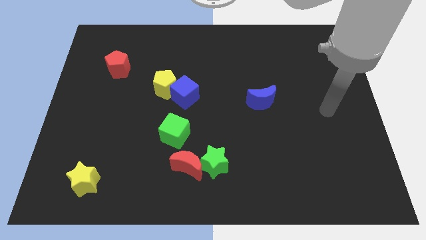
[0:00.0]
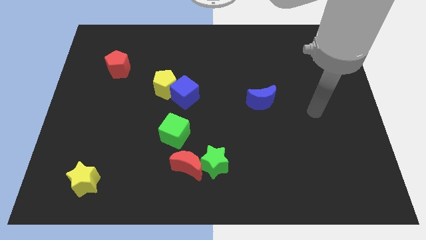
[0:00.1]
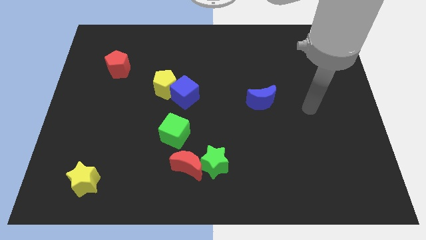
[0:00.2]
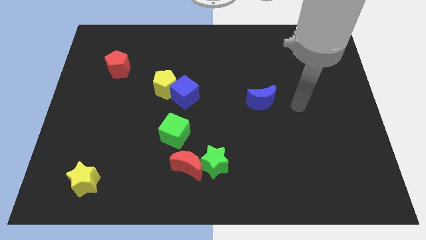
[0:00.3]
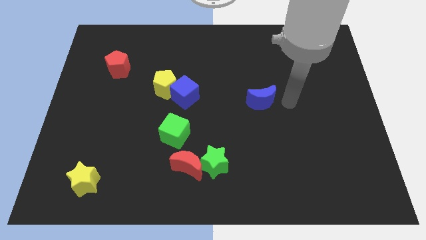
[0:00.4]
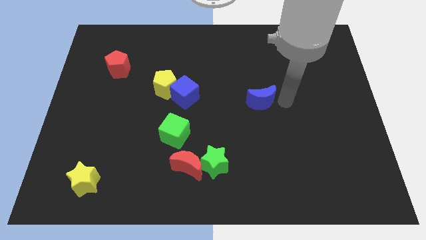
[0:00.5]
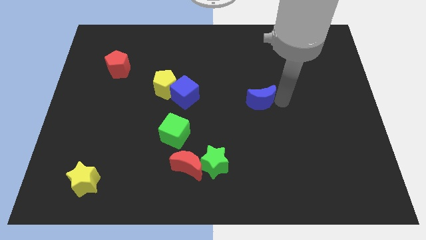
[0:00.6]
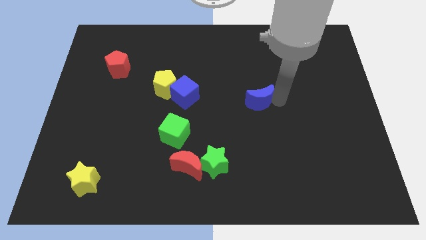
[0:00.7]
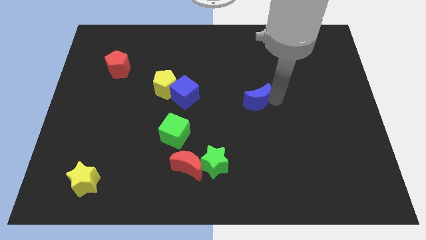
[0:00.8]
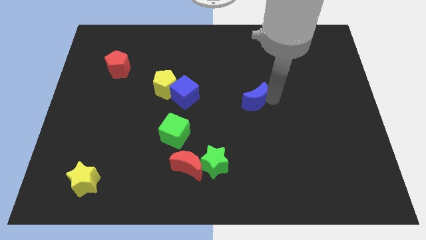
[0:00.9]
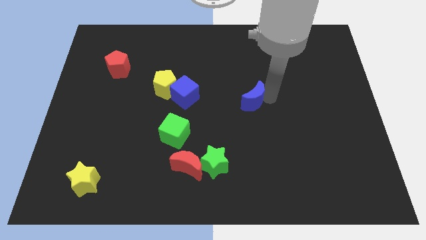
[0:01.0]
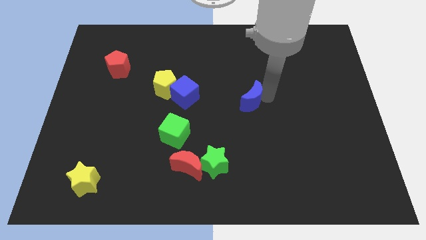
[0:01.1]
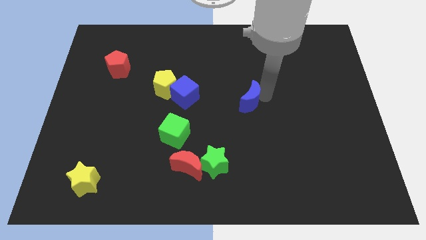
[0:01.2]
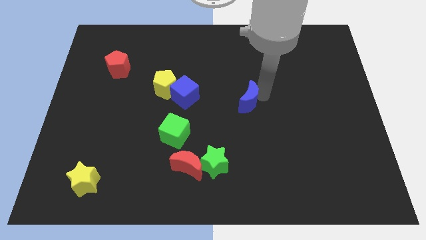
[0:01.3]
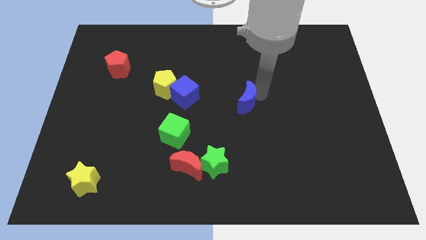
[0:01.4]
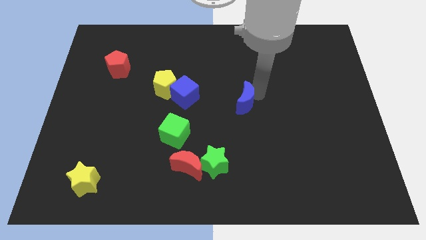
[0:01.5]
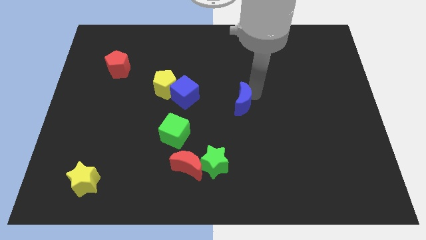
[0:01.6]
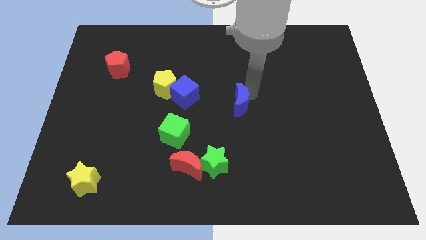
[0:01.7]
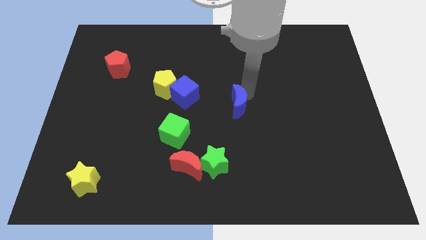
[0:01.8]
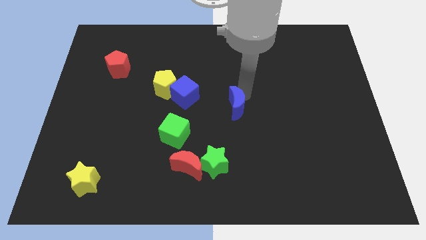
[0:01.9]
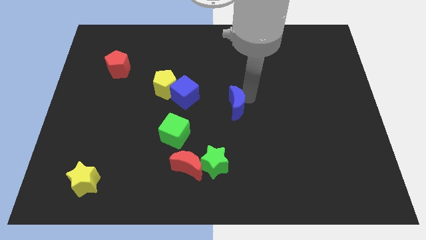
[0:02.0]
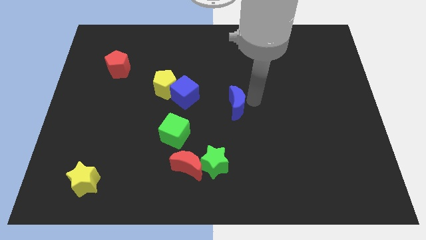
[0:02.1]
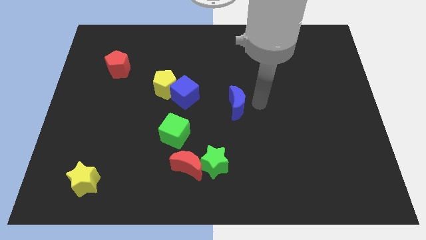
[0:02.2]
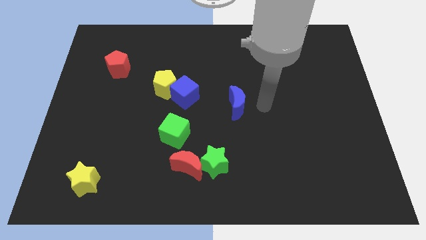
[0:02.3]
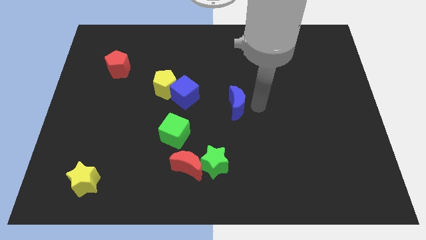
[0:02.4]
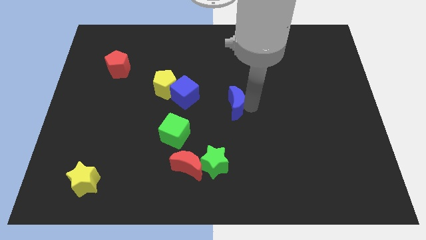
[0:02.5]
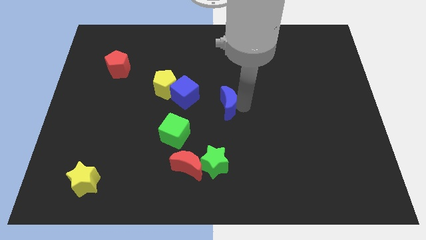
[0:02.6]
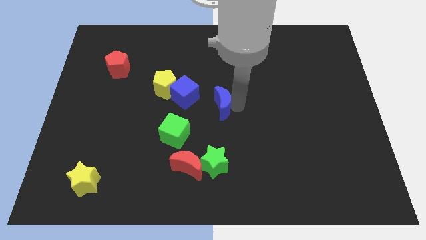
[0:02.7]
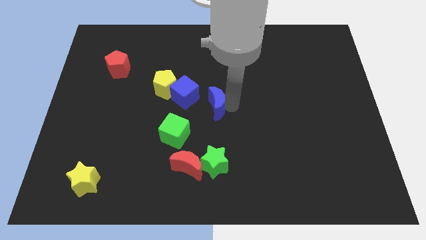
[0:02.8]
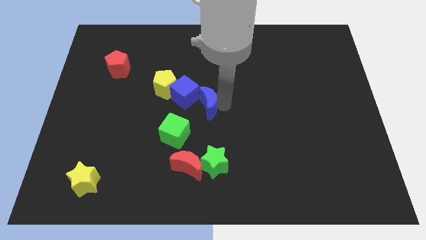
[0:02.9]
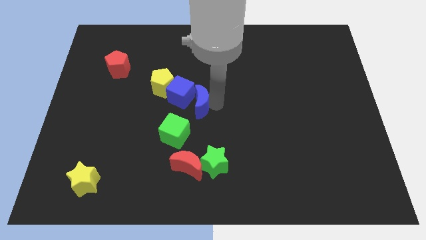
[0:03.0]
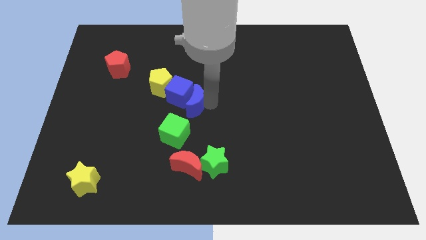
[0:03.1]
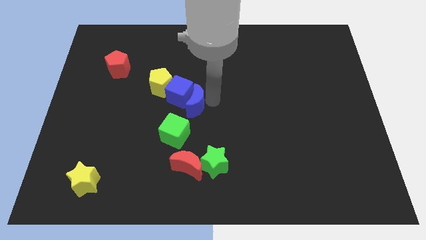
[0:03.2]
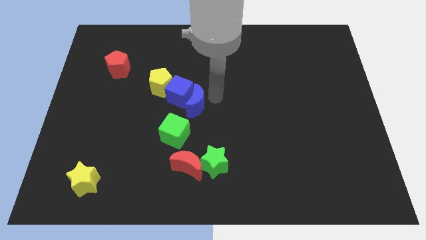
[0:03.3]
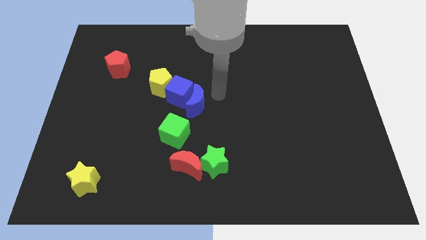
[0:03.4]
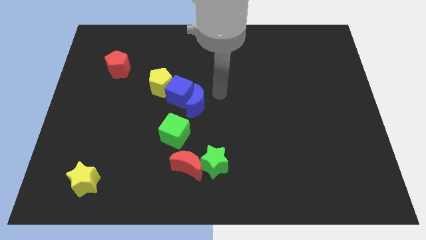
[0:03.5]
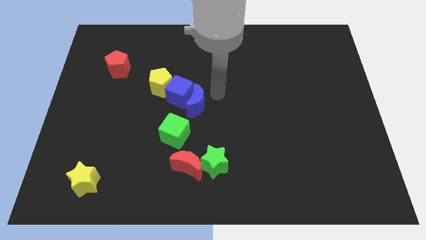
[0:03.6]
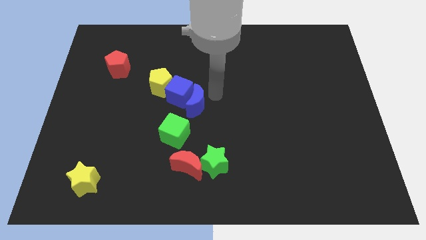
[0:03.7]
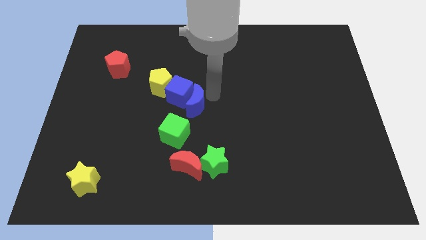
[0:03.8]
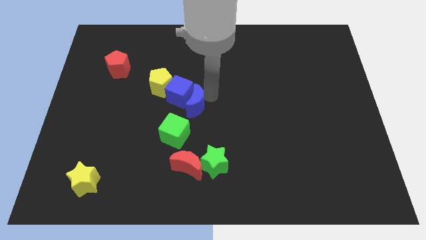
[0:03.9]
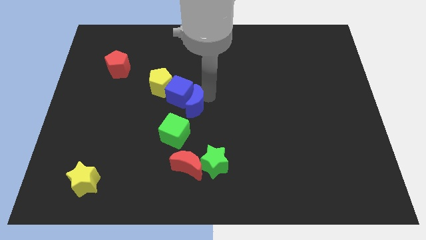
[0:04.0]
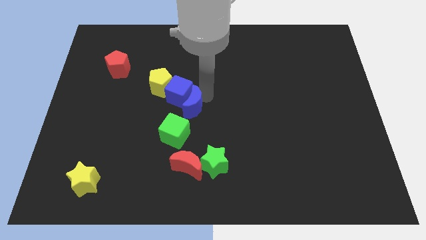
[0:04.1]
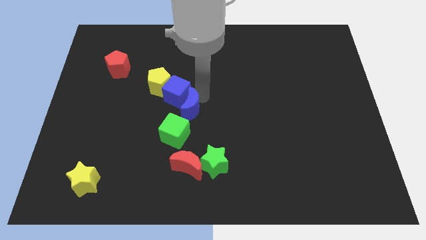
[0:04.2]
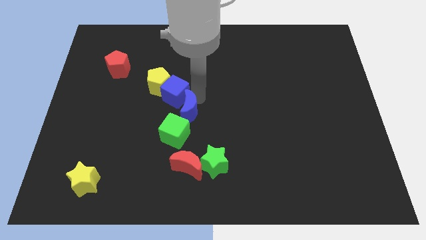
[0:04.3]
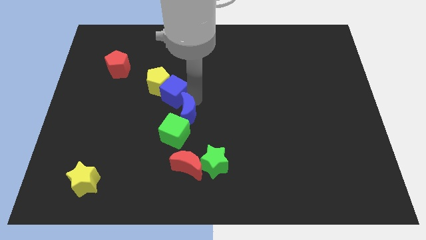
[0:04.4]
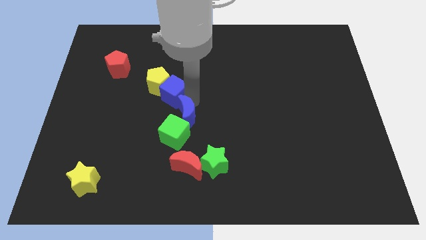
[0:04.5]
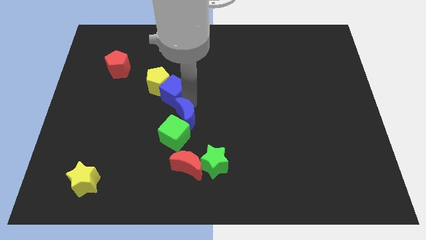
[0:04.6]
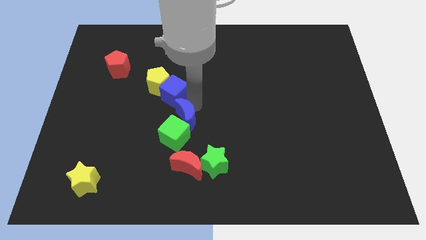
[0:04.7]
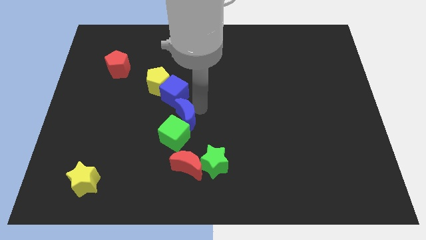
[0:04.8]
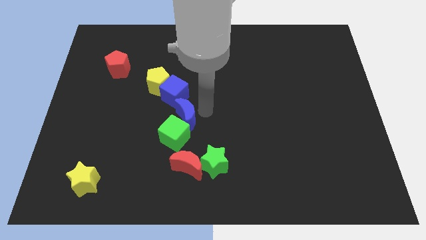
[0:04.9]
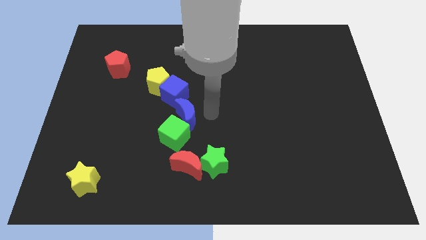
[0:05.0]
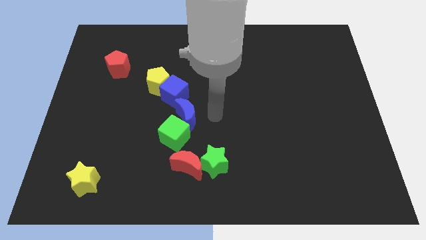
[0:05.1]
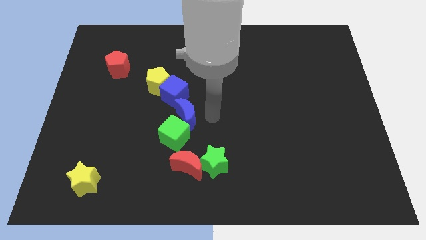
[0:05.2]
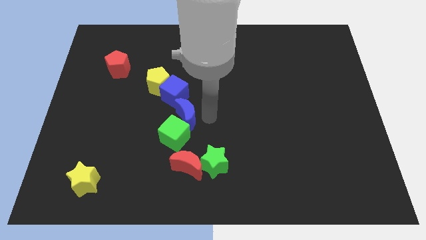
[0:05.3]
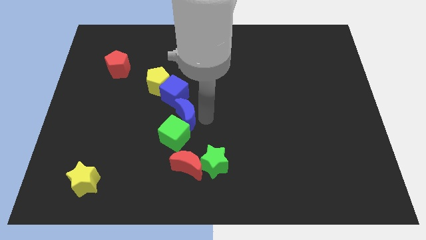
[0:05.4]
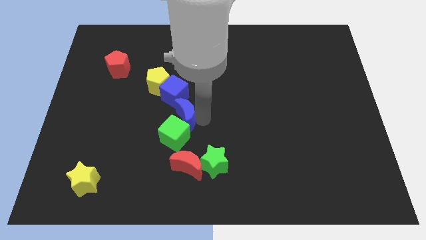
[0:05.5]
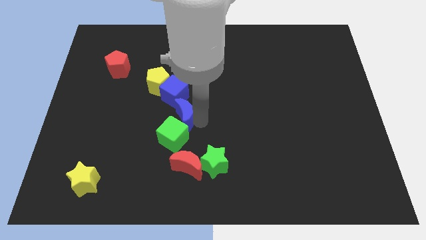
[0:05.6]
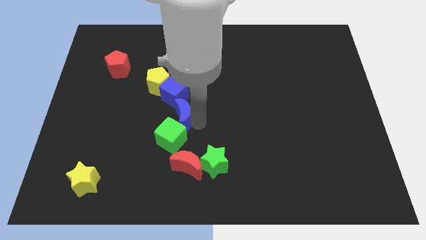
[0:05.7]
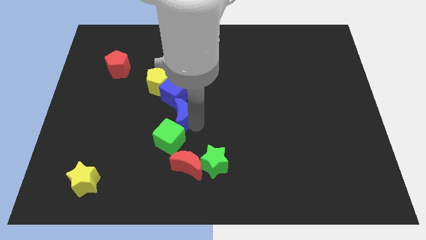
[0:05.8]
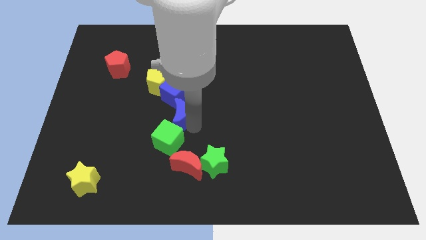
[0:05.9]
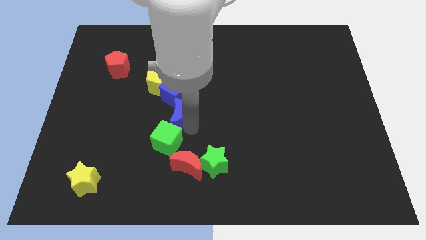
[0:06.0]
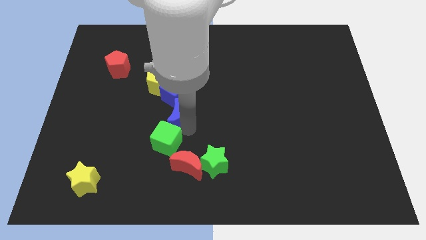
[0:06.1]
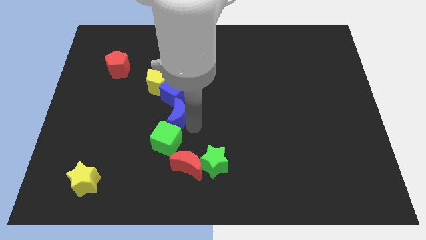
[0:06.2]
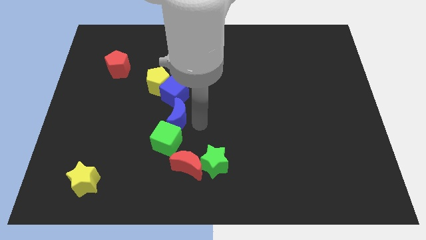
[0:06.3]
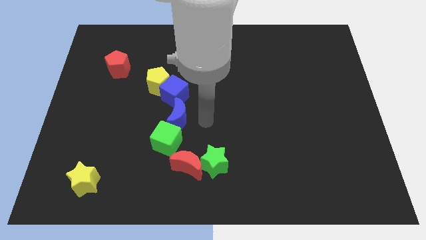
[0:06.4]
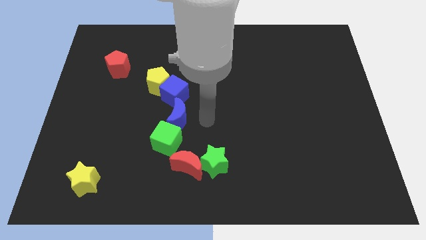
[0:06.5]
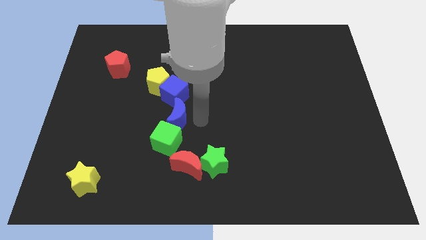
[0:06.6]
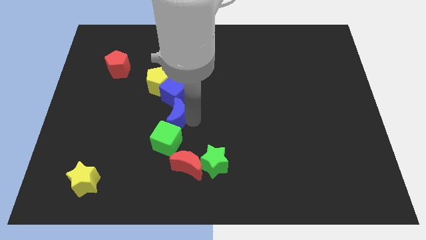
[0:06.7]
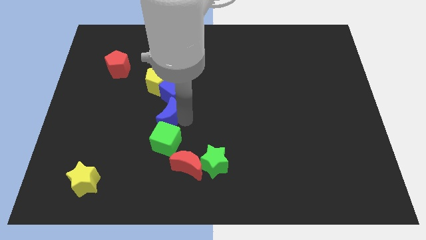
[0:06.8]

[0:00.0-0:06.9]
move the blue moon below the yellow pentagon
